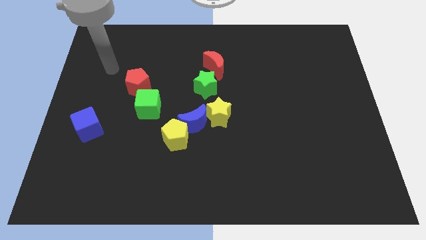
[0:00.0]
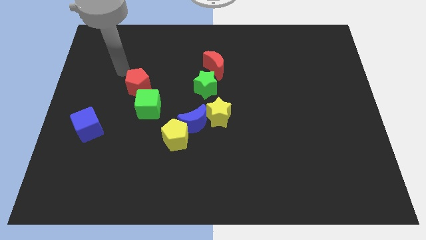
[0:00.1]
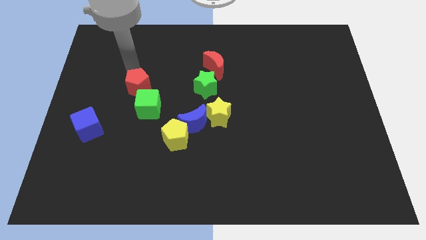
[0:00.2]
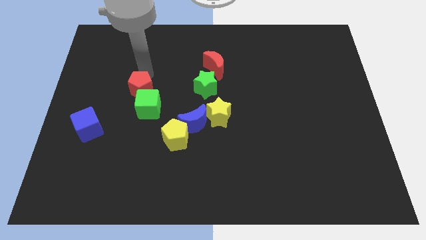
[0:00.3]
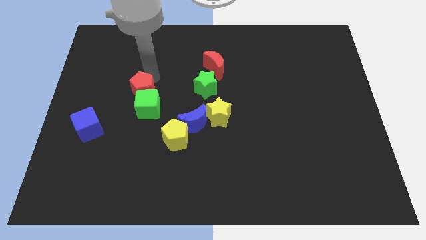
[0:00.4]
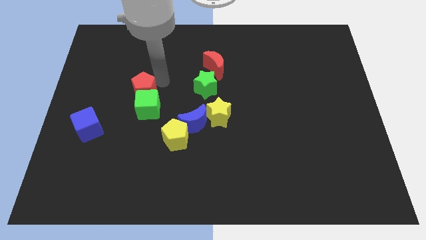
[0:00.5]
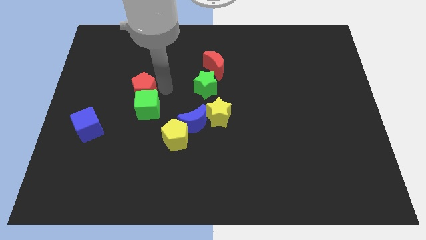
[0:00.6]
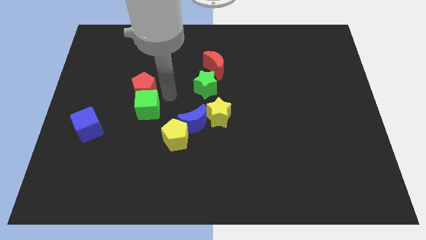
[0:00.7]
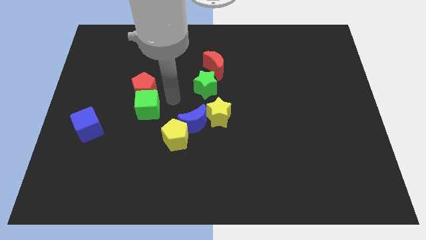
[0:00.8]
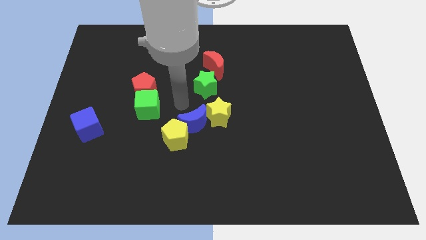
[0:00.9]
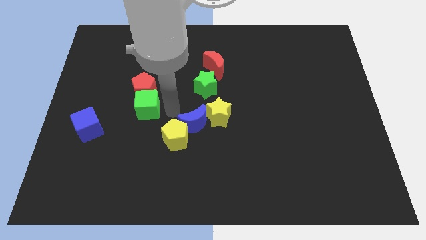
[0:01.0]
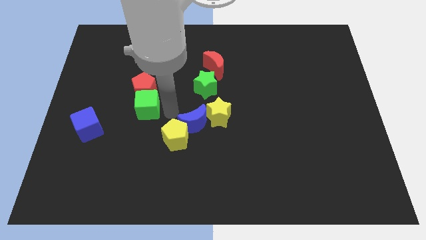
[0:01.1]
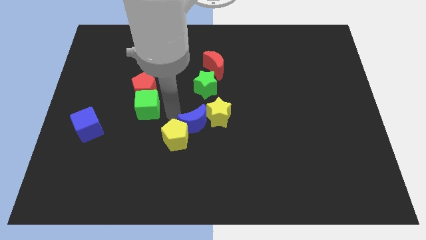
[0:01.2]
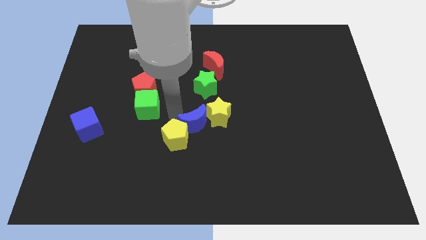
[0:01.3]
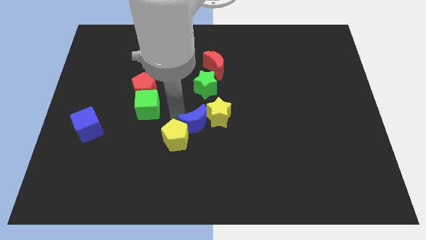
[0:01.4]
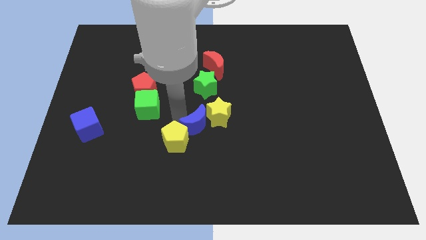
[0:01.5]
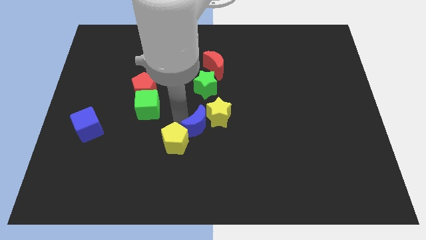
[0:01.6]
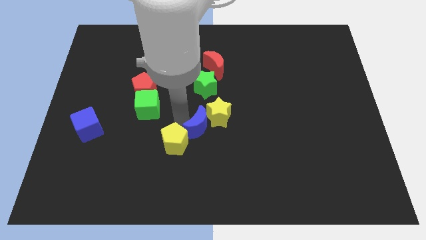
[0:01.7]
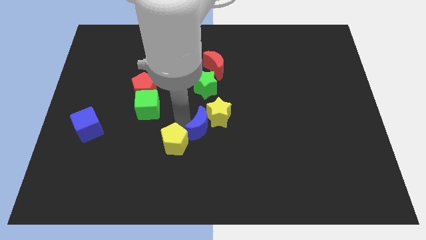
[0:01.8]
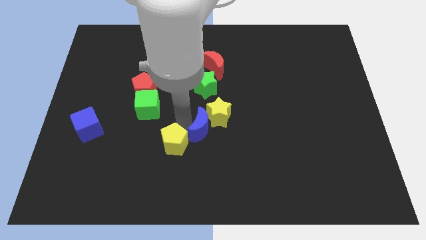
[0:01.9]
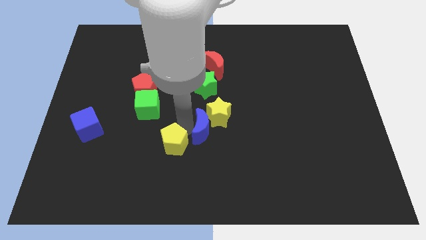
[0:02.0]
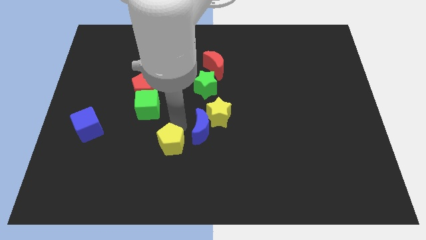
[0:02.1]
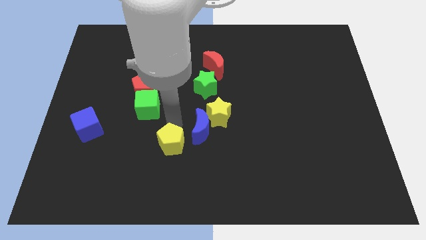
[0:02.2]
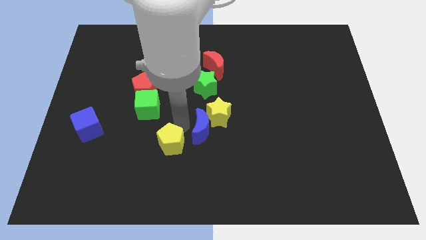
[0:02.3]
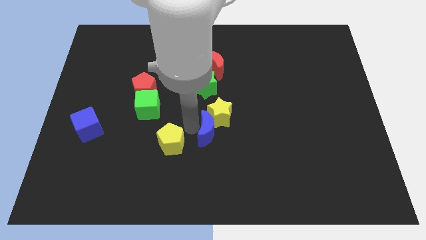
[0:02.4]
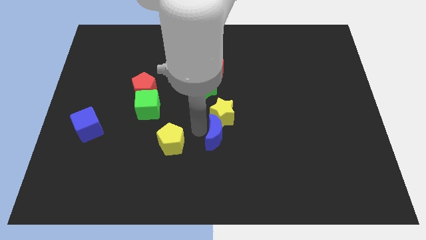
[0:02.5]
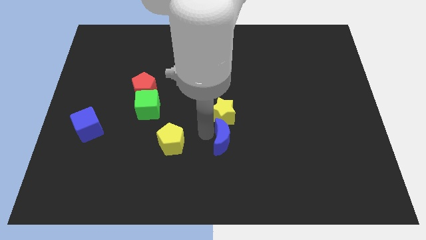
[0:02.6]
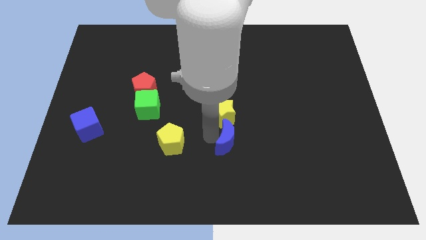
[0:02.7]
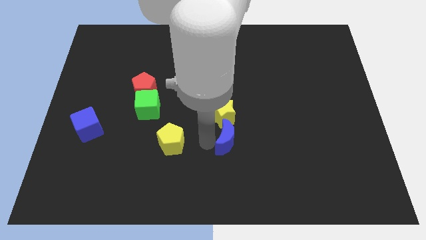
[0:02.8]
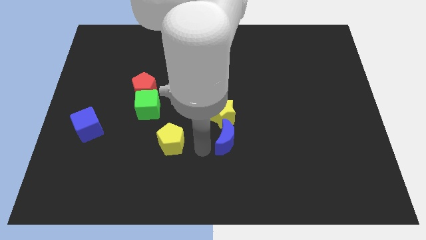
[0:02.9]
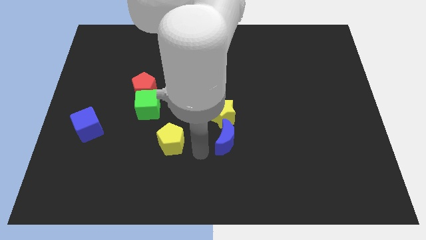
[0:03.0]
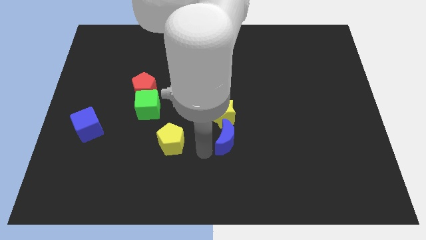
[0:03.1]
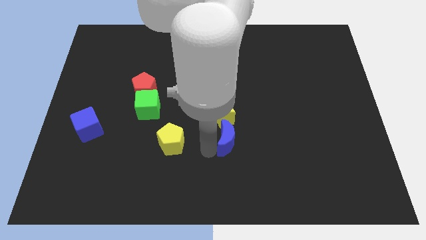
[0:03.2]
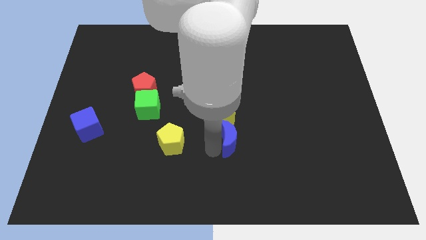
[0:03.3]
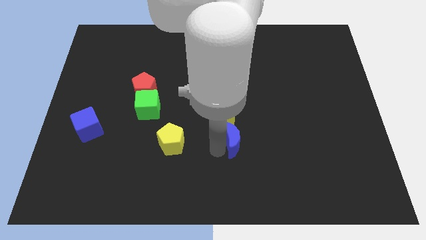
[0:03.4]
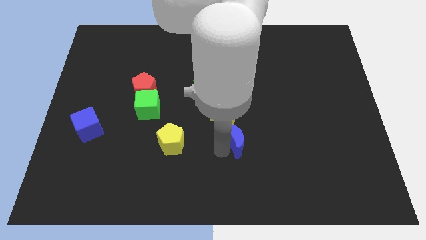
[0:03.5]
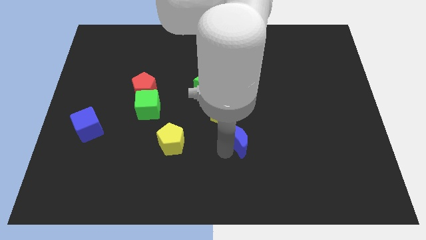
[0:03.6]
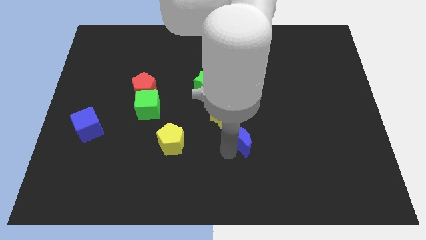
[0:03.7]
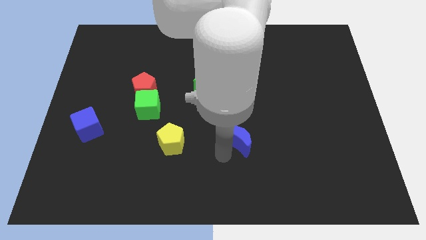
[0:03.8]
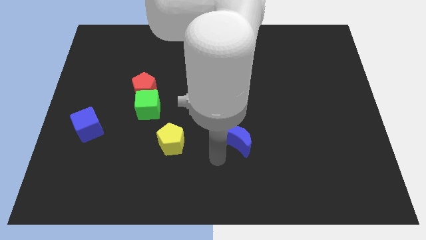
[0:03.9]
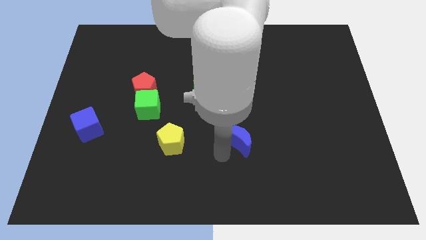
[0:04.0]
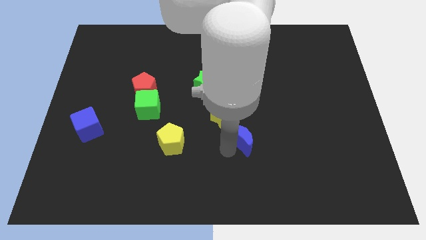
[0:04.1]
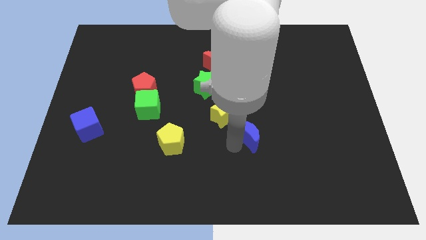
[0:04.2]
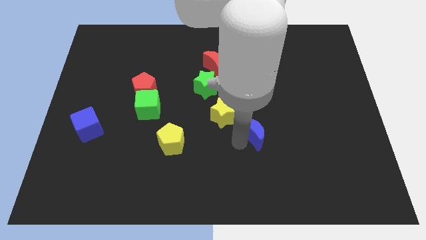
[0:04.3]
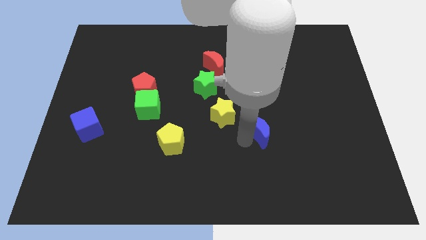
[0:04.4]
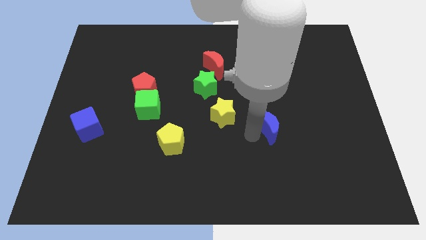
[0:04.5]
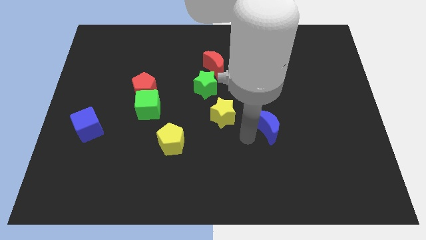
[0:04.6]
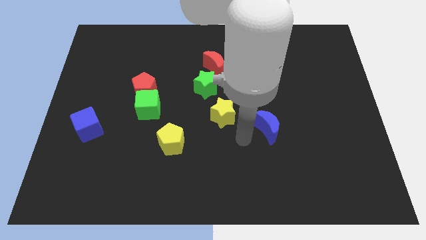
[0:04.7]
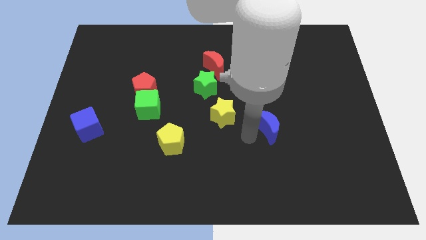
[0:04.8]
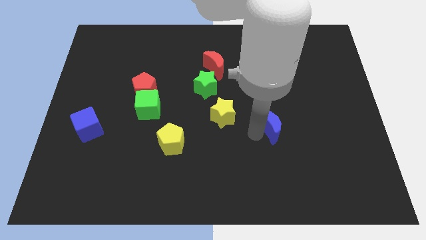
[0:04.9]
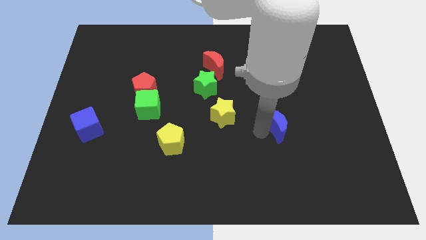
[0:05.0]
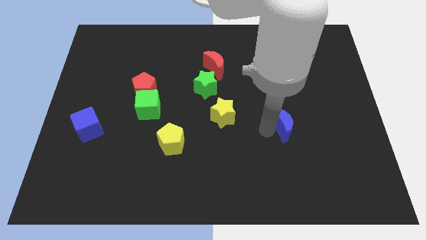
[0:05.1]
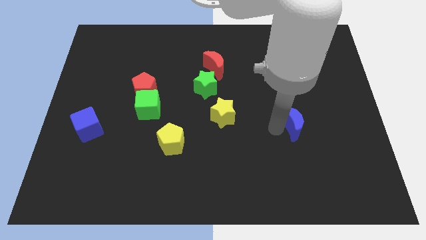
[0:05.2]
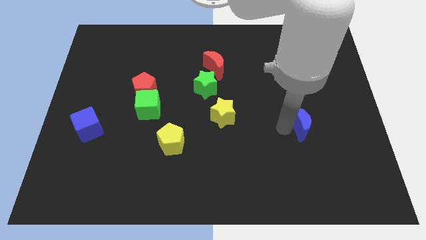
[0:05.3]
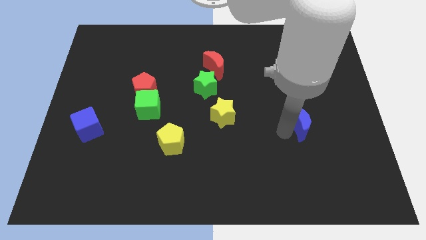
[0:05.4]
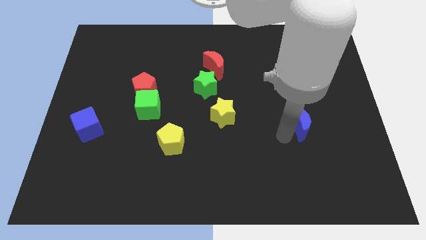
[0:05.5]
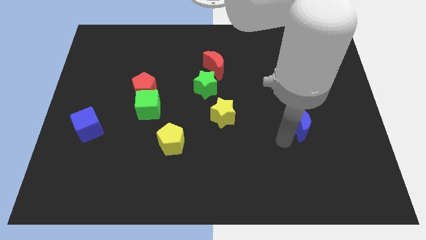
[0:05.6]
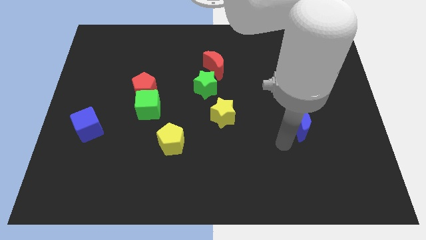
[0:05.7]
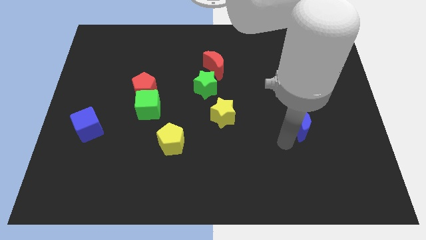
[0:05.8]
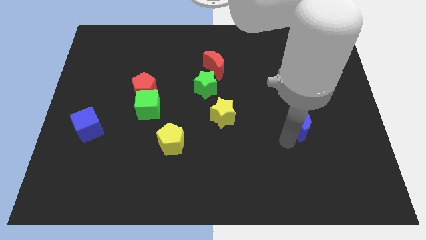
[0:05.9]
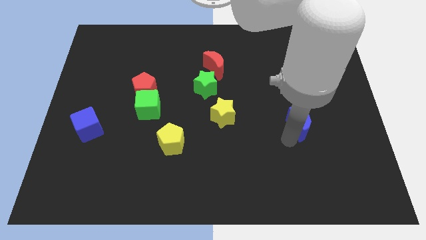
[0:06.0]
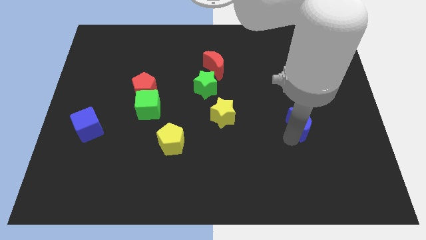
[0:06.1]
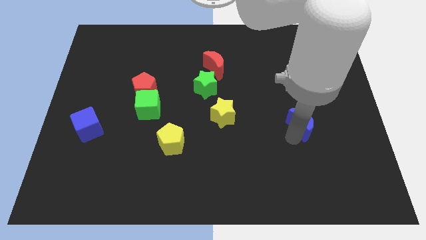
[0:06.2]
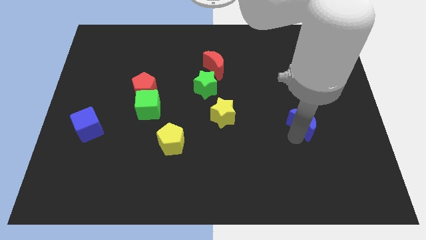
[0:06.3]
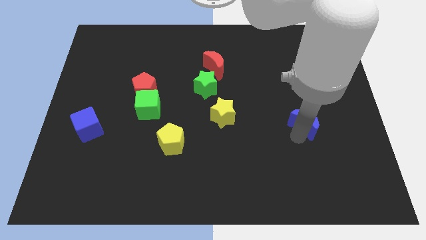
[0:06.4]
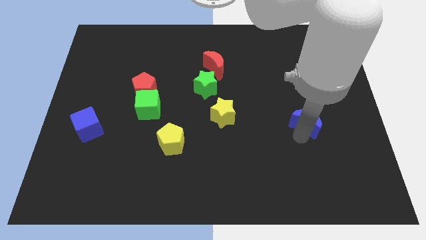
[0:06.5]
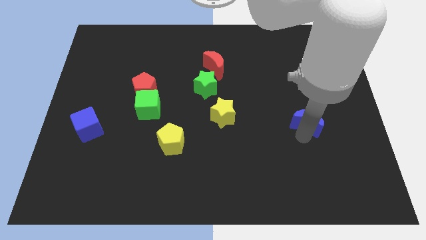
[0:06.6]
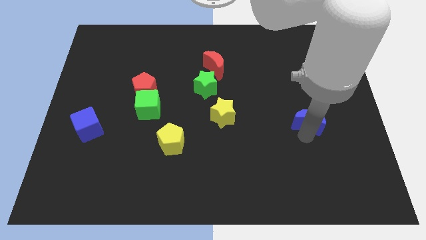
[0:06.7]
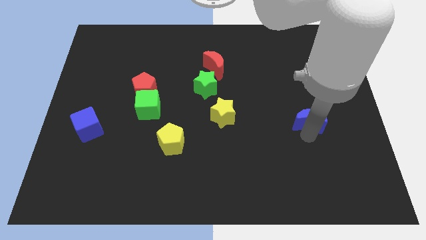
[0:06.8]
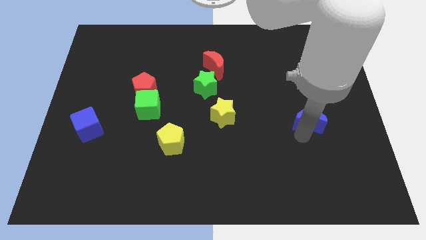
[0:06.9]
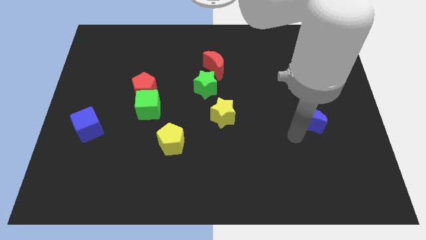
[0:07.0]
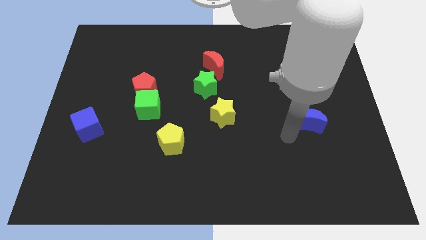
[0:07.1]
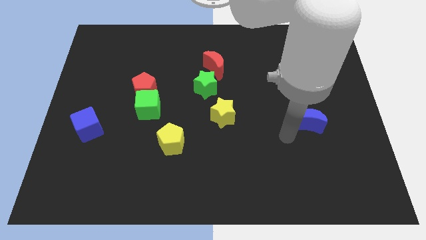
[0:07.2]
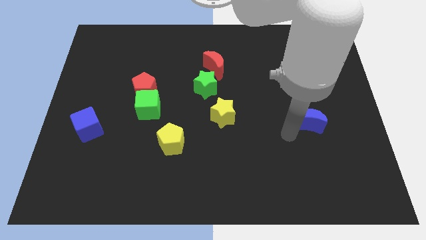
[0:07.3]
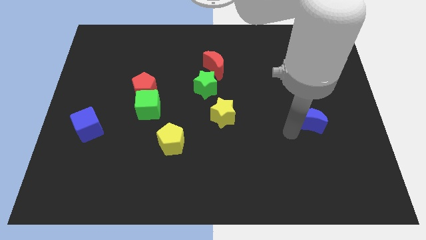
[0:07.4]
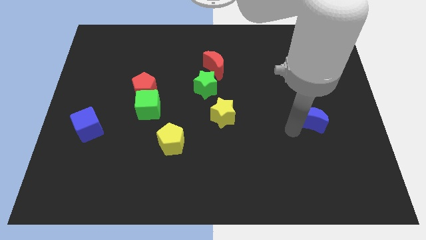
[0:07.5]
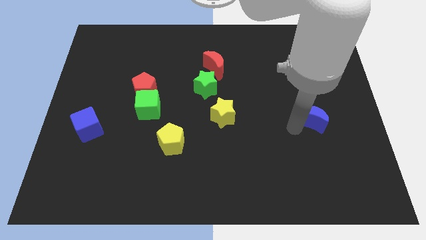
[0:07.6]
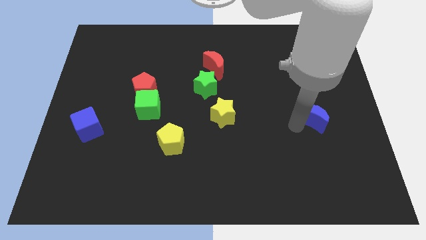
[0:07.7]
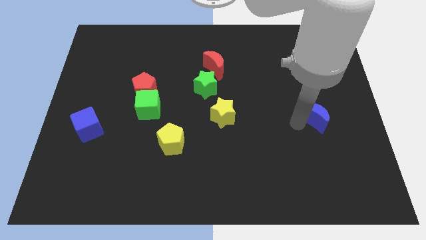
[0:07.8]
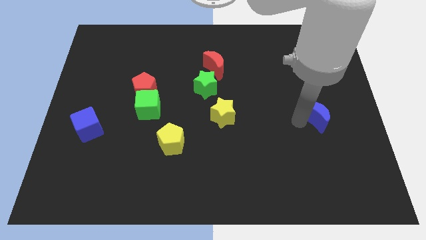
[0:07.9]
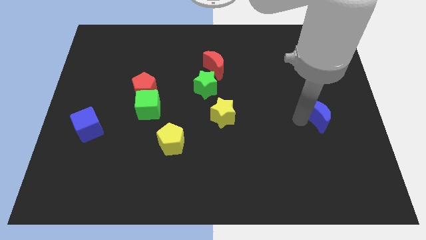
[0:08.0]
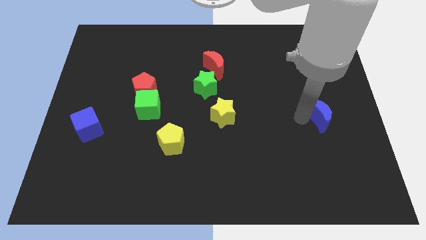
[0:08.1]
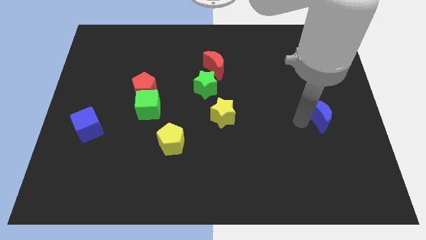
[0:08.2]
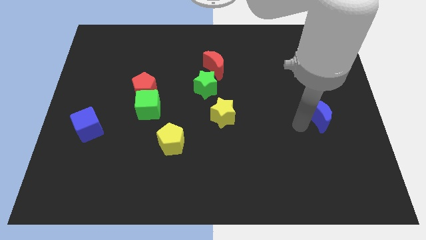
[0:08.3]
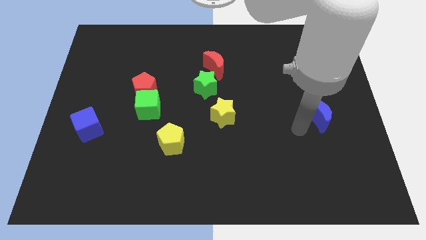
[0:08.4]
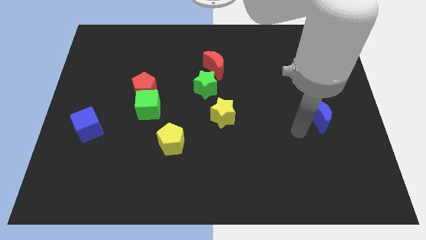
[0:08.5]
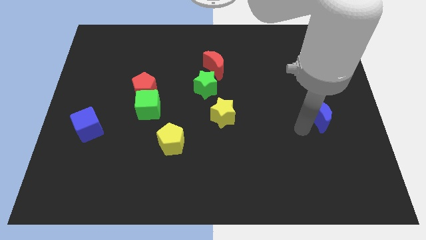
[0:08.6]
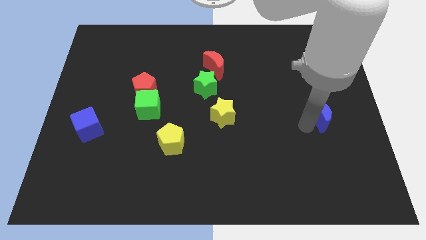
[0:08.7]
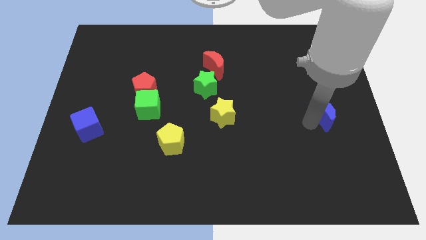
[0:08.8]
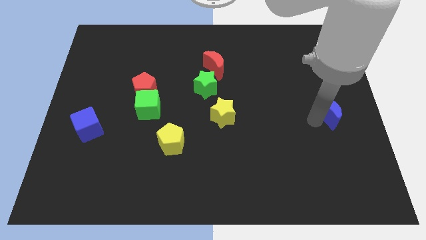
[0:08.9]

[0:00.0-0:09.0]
push the blue moon to the right side
